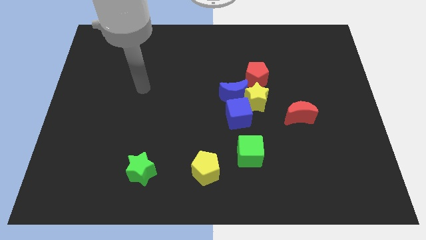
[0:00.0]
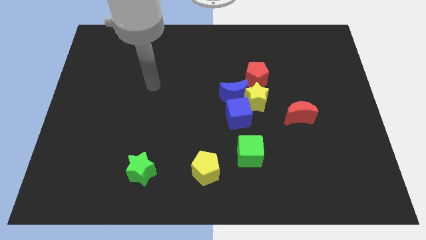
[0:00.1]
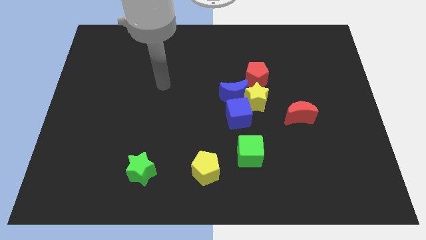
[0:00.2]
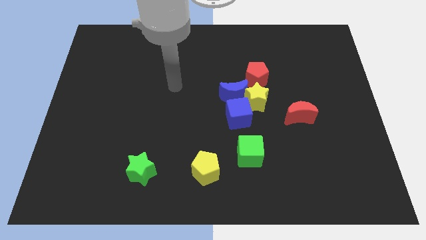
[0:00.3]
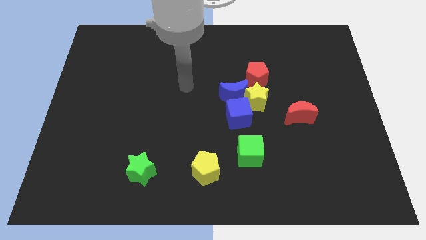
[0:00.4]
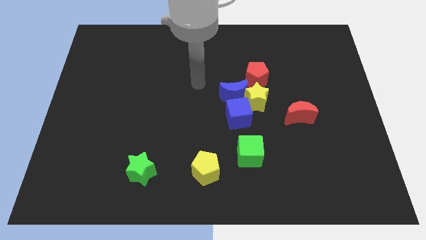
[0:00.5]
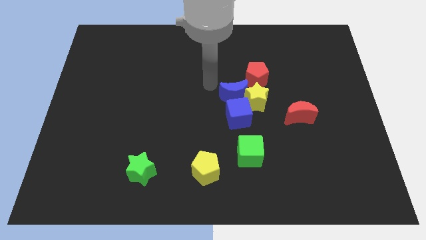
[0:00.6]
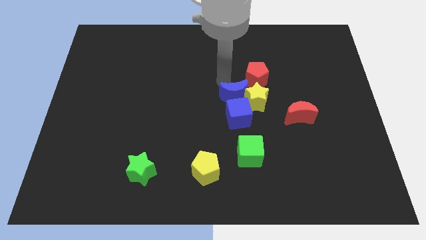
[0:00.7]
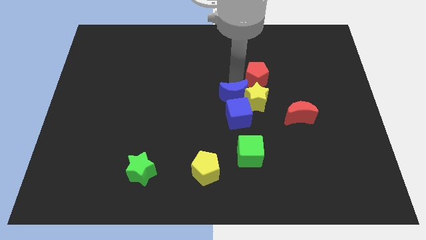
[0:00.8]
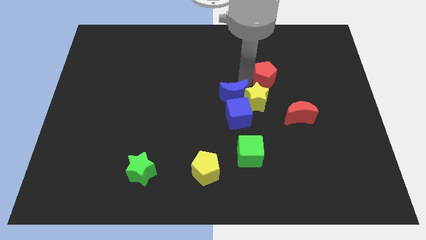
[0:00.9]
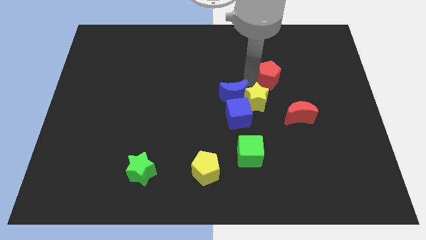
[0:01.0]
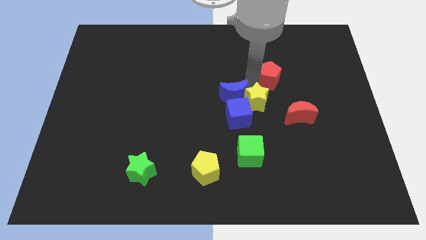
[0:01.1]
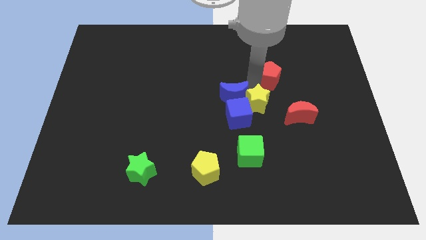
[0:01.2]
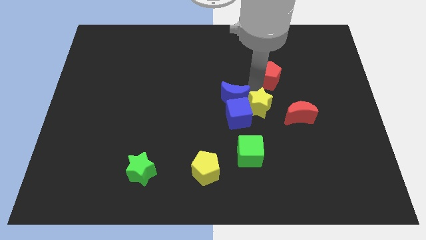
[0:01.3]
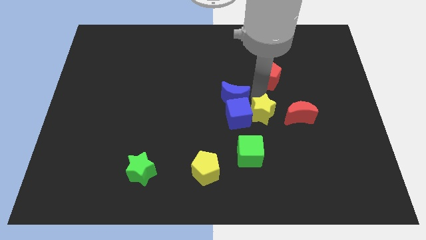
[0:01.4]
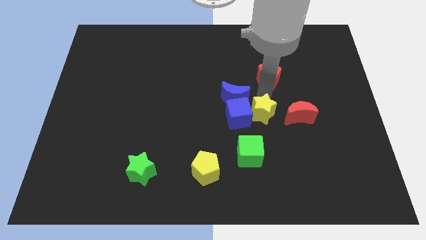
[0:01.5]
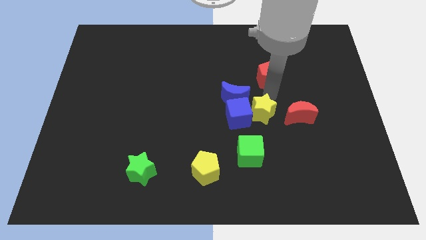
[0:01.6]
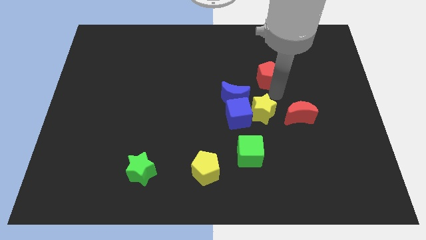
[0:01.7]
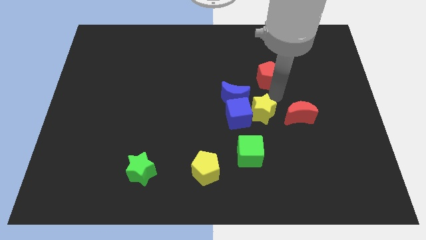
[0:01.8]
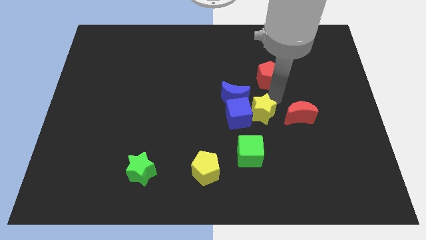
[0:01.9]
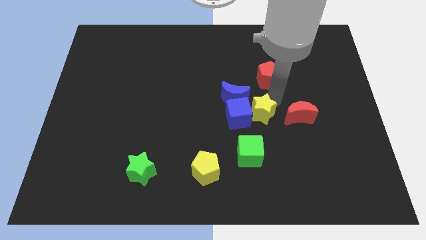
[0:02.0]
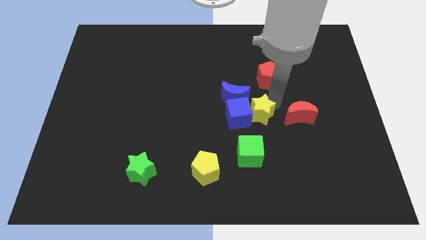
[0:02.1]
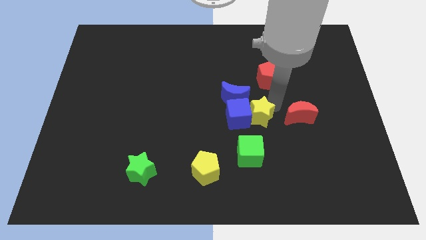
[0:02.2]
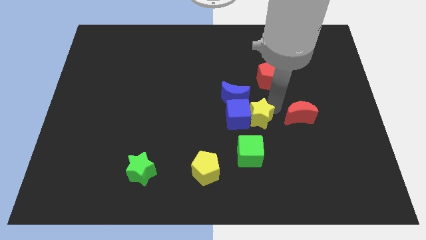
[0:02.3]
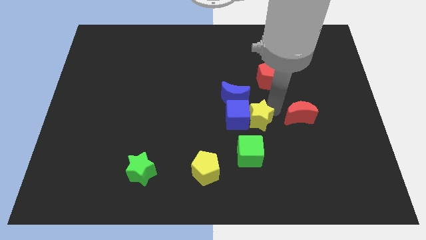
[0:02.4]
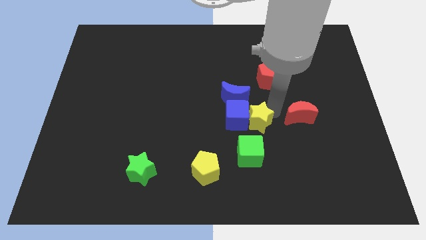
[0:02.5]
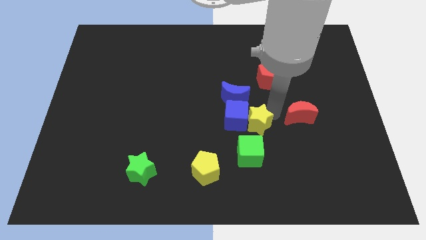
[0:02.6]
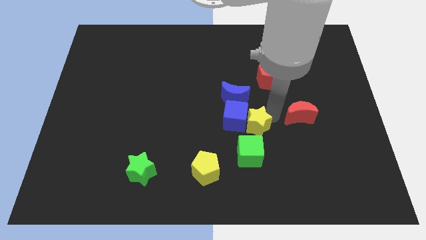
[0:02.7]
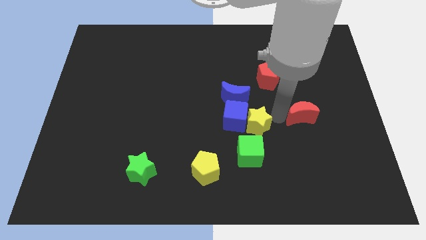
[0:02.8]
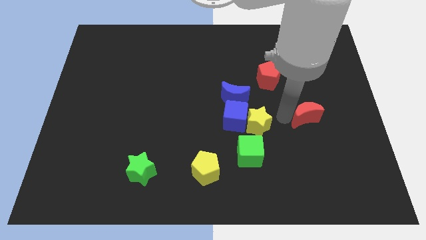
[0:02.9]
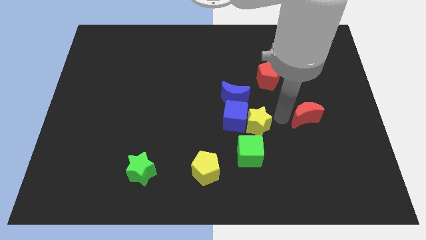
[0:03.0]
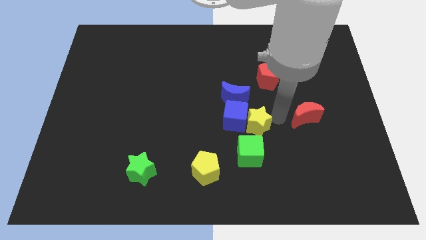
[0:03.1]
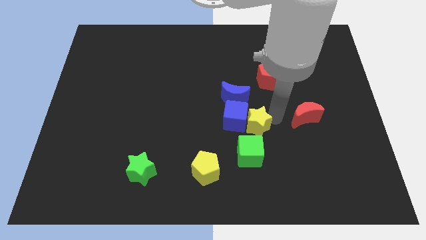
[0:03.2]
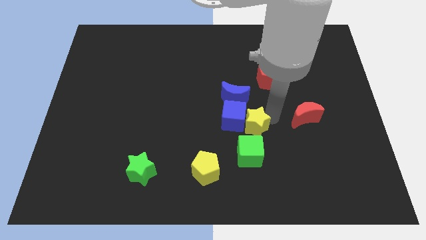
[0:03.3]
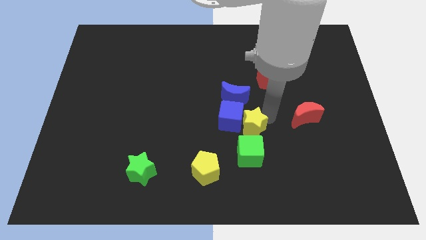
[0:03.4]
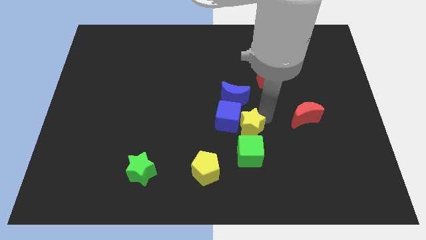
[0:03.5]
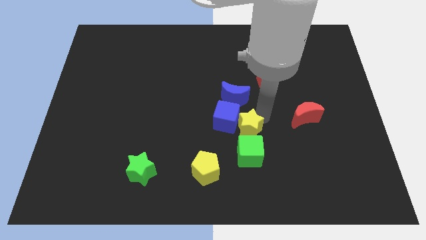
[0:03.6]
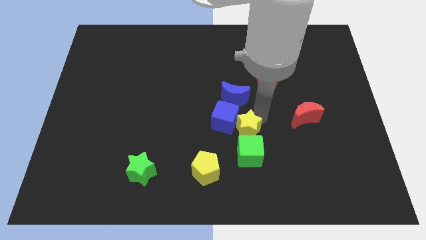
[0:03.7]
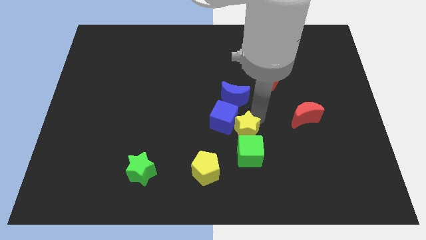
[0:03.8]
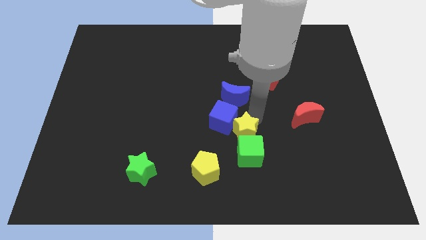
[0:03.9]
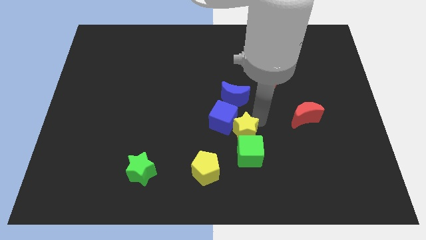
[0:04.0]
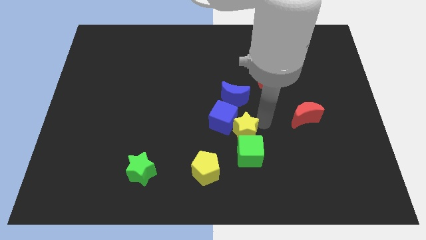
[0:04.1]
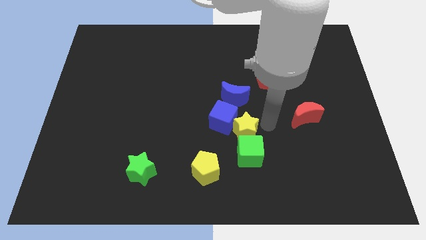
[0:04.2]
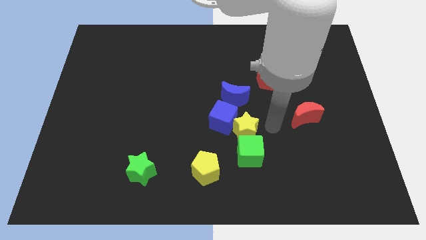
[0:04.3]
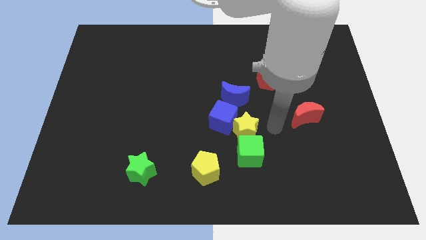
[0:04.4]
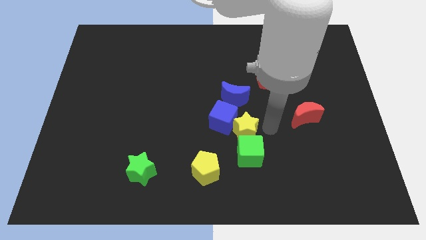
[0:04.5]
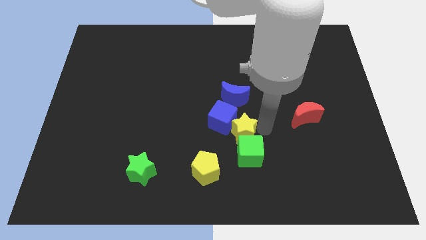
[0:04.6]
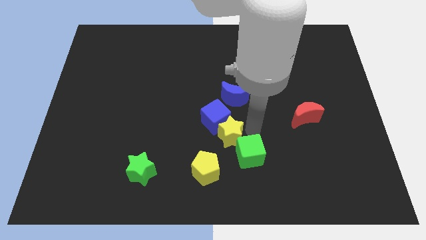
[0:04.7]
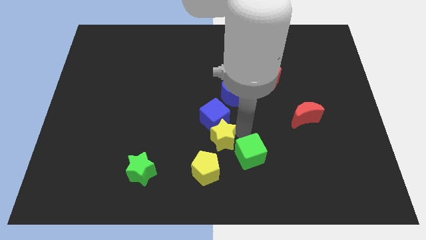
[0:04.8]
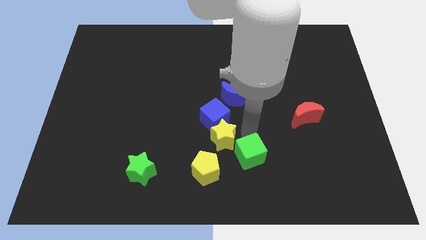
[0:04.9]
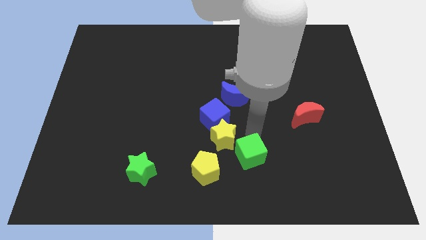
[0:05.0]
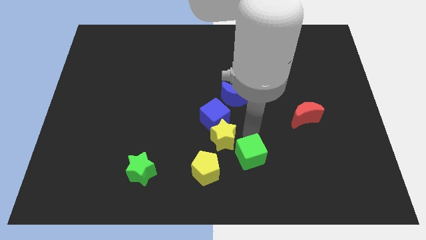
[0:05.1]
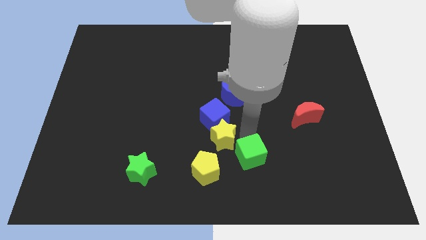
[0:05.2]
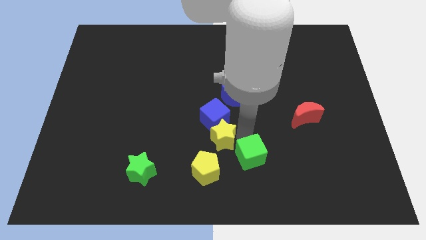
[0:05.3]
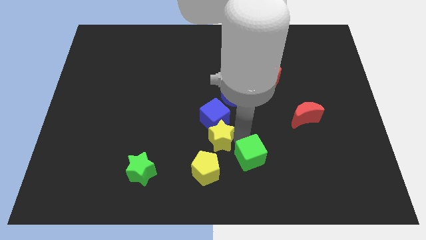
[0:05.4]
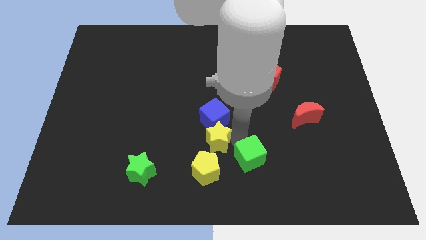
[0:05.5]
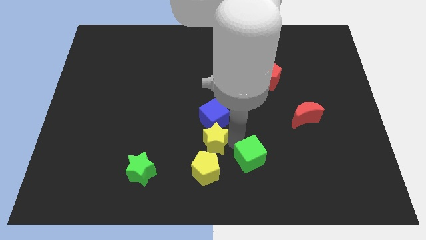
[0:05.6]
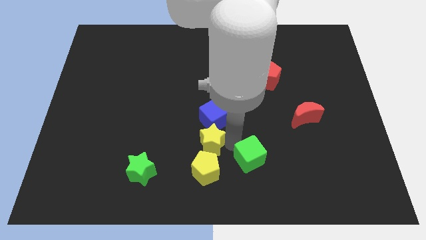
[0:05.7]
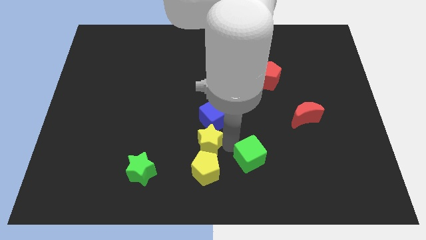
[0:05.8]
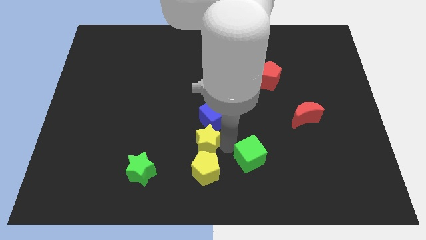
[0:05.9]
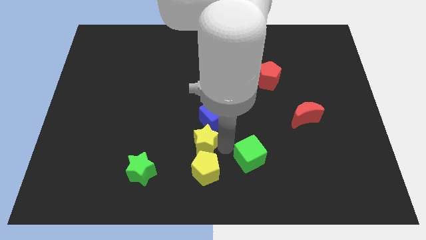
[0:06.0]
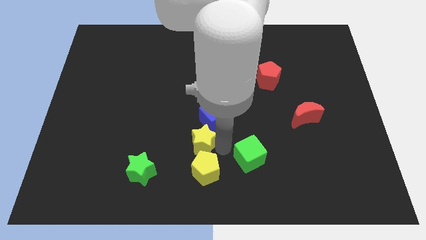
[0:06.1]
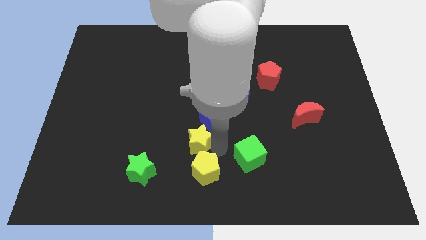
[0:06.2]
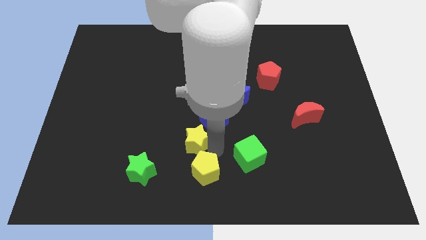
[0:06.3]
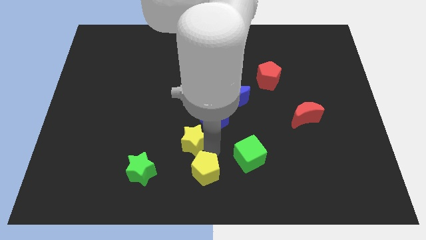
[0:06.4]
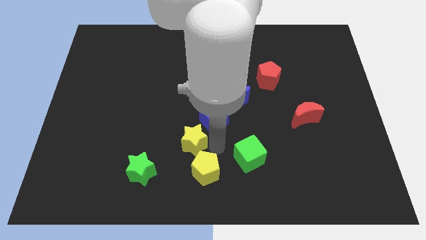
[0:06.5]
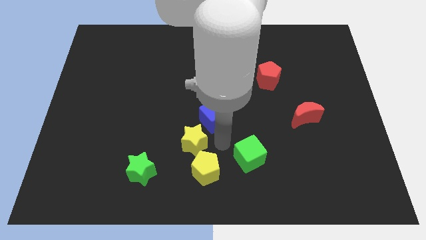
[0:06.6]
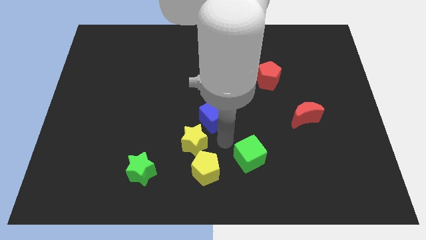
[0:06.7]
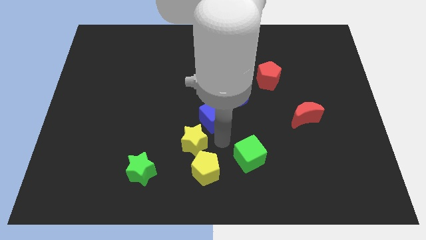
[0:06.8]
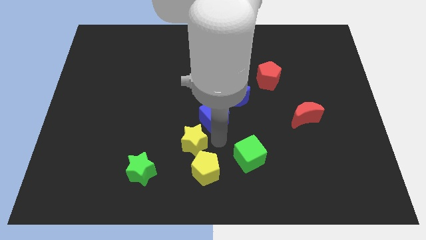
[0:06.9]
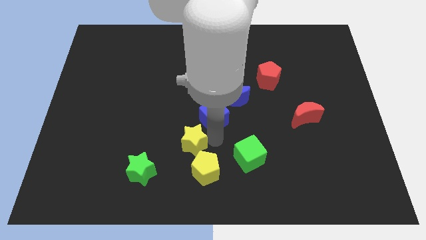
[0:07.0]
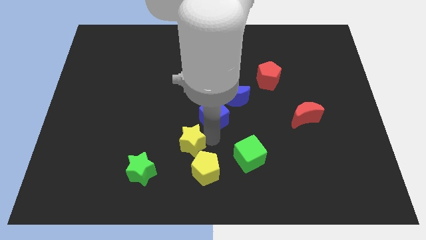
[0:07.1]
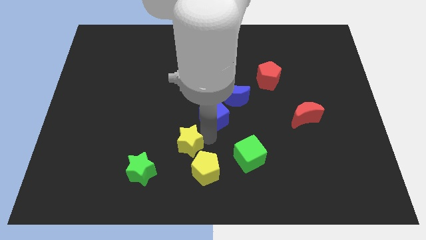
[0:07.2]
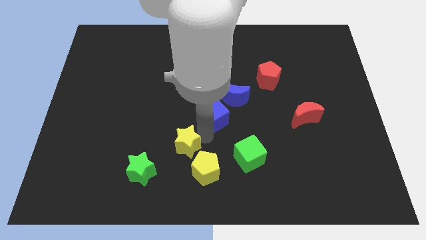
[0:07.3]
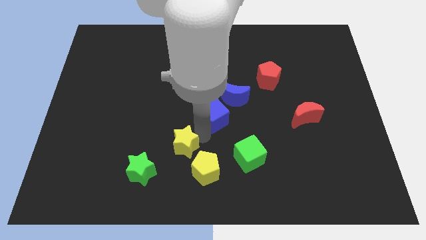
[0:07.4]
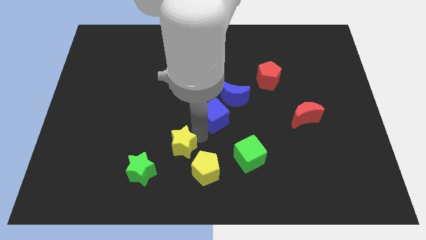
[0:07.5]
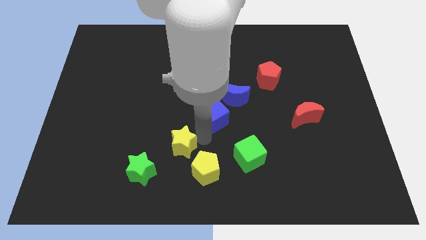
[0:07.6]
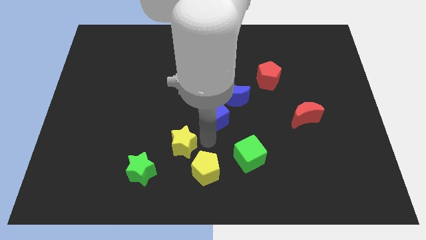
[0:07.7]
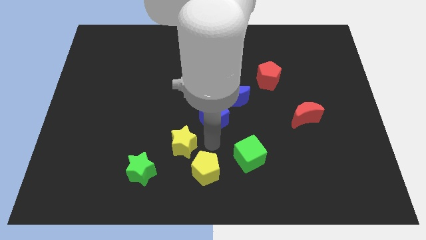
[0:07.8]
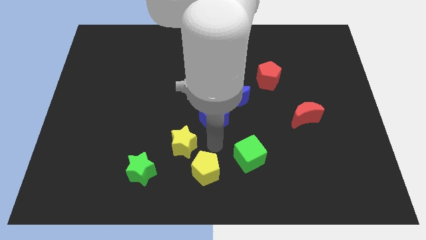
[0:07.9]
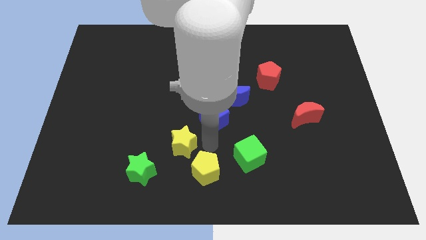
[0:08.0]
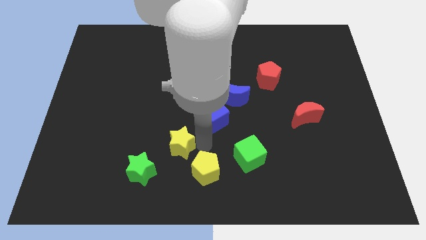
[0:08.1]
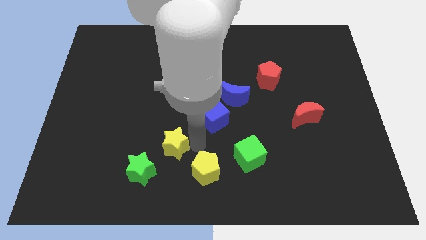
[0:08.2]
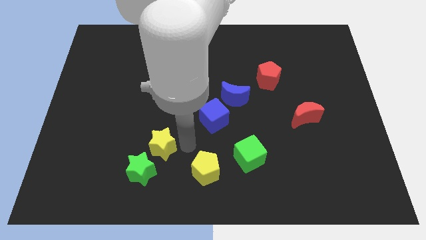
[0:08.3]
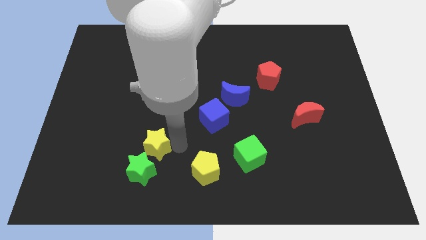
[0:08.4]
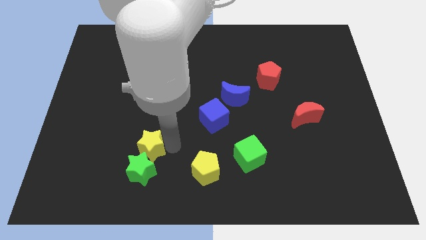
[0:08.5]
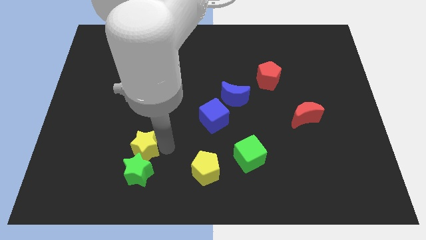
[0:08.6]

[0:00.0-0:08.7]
put the yellow star to the top left side of the green star
